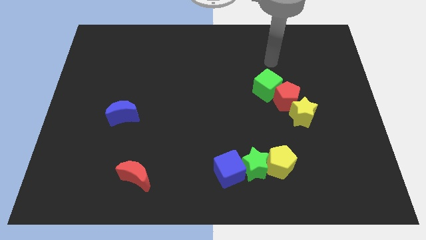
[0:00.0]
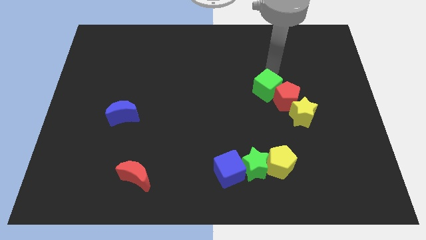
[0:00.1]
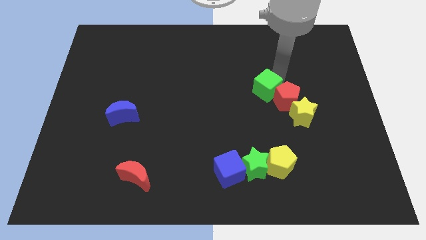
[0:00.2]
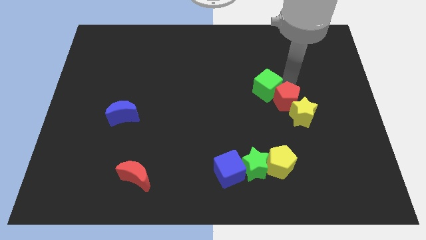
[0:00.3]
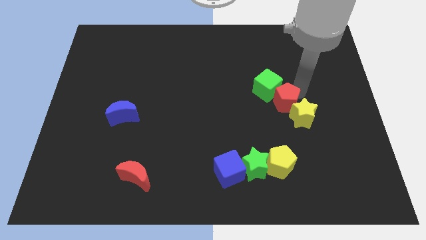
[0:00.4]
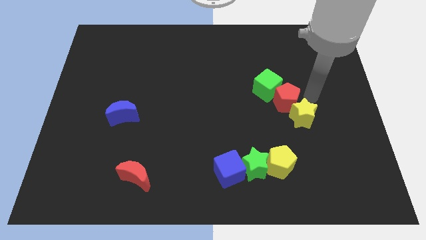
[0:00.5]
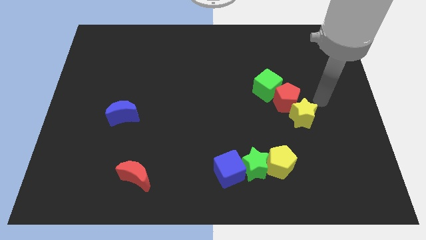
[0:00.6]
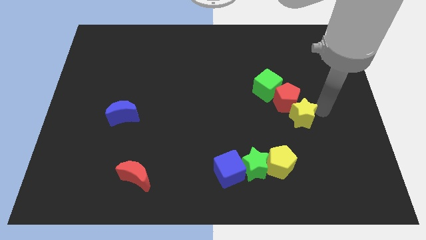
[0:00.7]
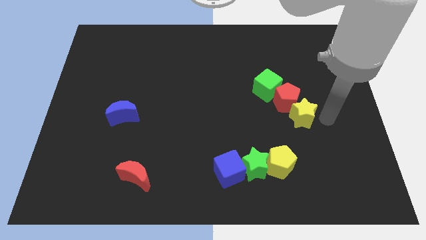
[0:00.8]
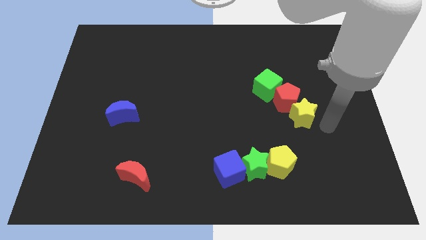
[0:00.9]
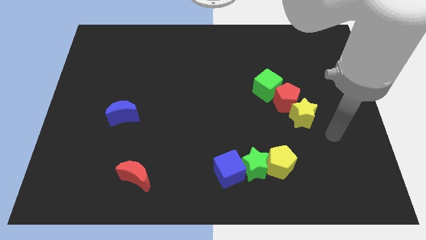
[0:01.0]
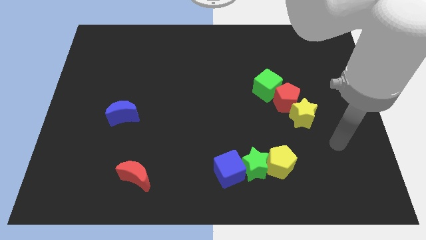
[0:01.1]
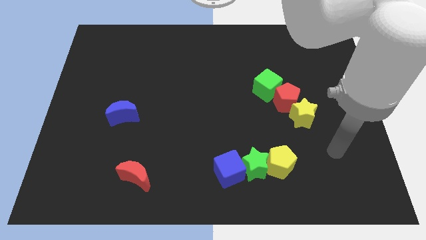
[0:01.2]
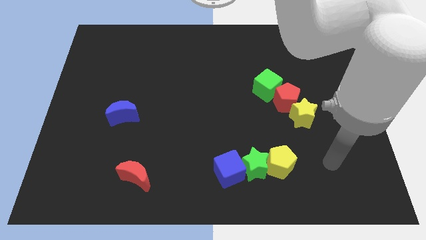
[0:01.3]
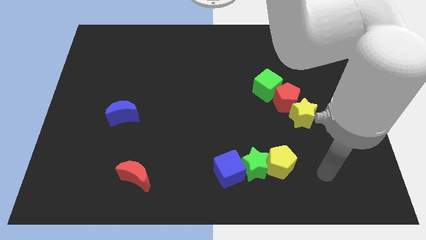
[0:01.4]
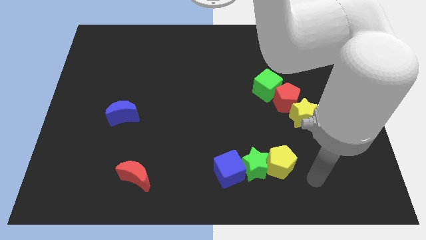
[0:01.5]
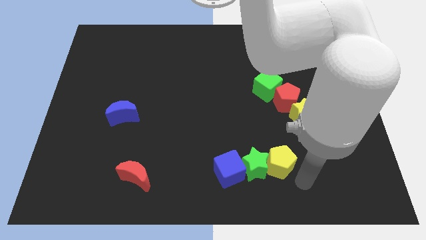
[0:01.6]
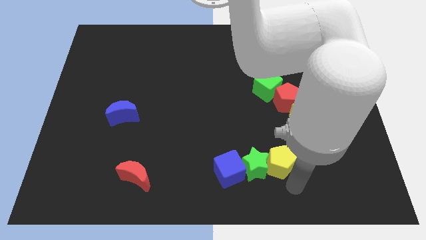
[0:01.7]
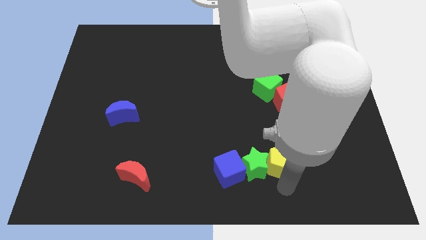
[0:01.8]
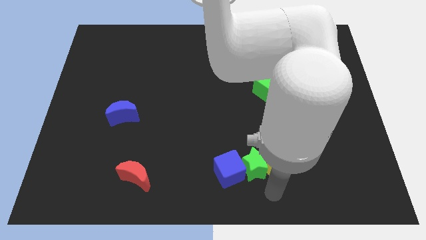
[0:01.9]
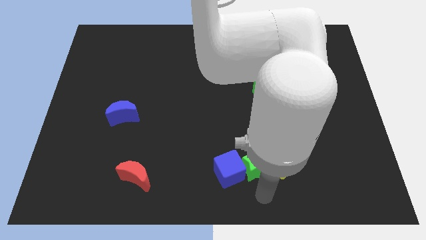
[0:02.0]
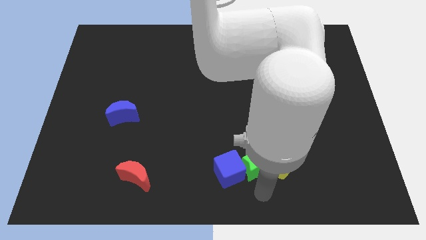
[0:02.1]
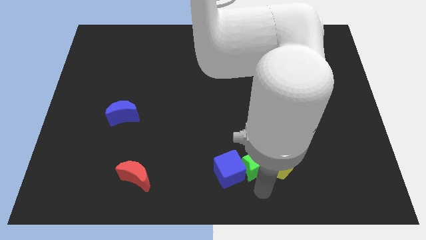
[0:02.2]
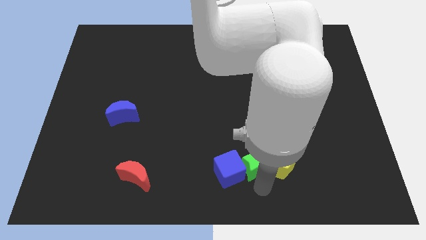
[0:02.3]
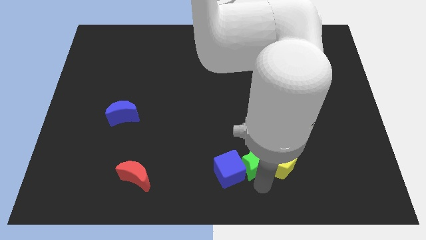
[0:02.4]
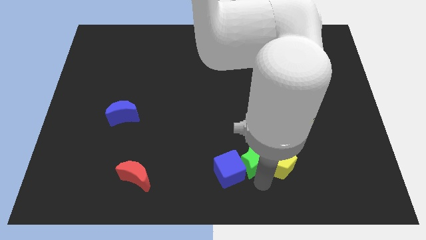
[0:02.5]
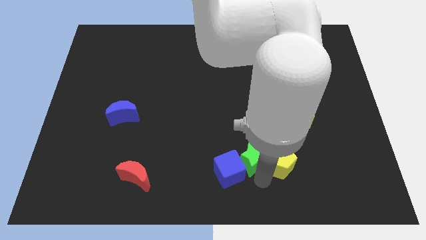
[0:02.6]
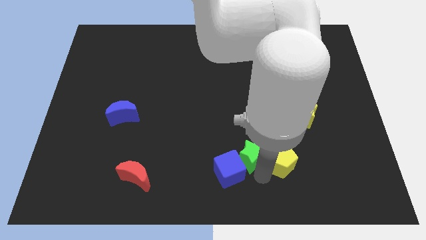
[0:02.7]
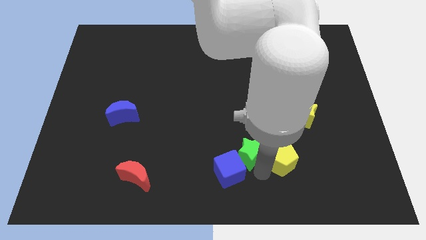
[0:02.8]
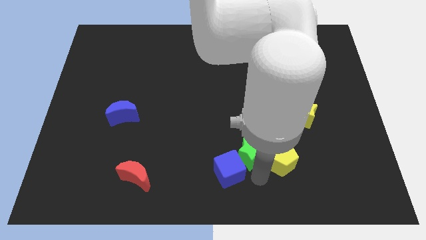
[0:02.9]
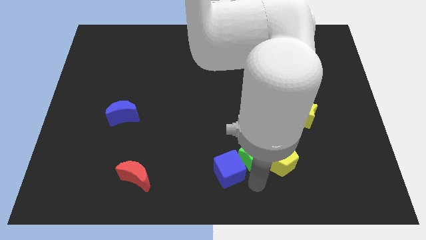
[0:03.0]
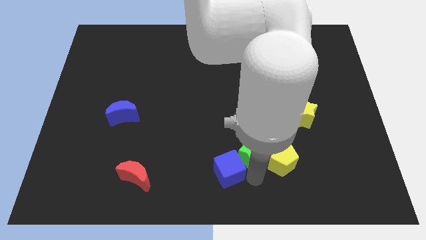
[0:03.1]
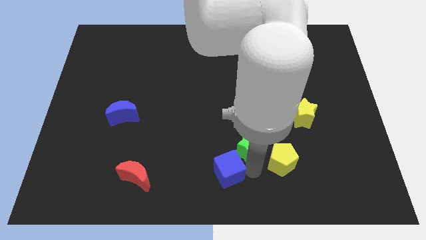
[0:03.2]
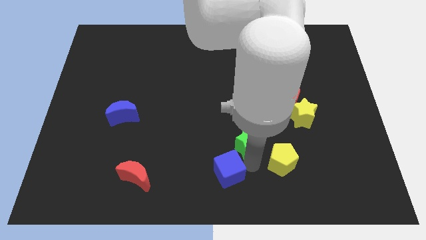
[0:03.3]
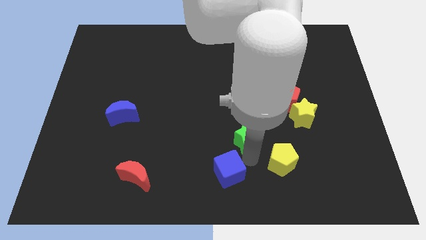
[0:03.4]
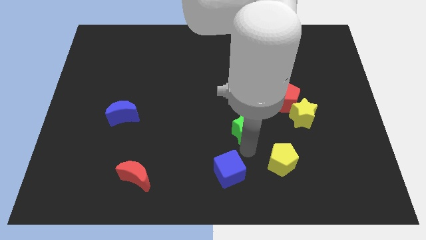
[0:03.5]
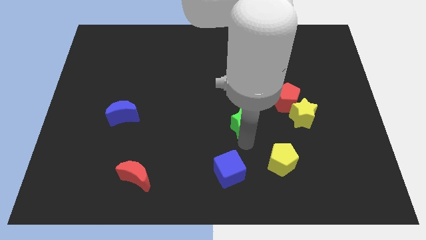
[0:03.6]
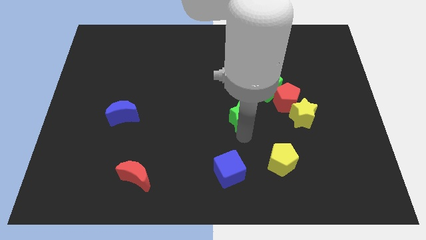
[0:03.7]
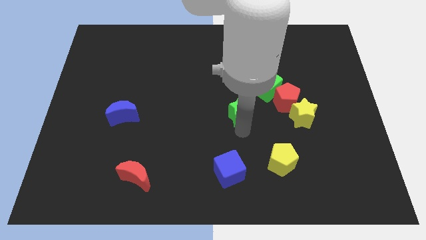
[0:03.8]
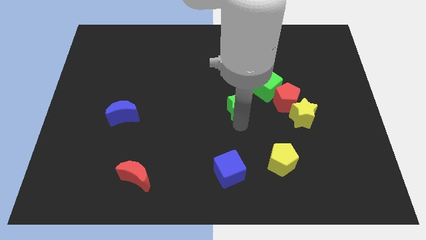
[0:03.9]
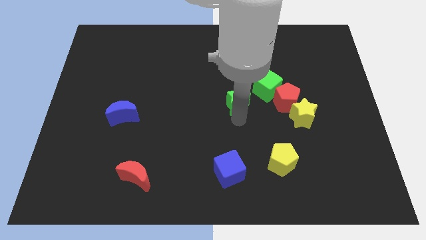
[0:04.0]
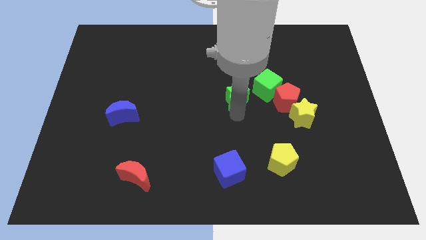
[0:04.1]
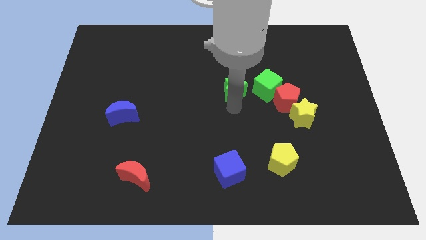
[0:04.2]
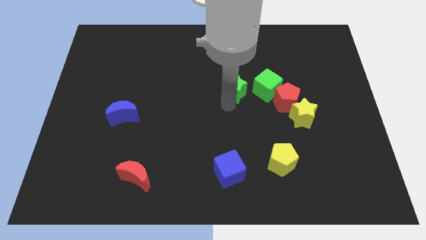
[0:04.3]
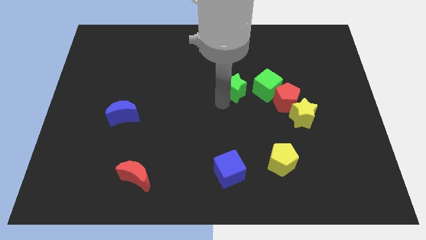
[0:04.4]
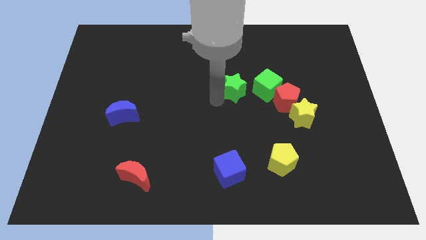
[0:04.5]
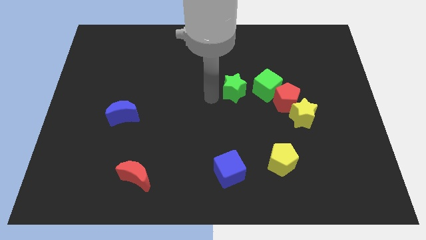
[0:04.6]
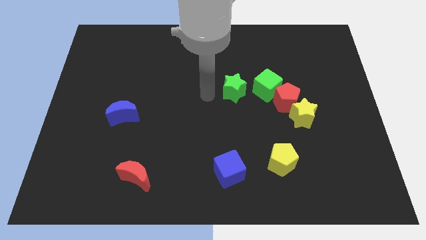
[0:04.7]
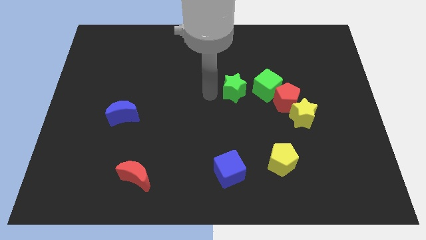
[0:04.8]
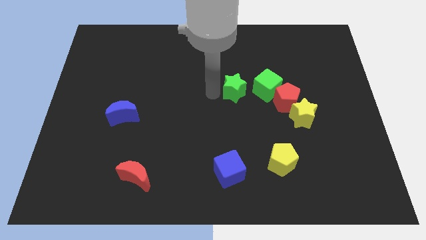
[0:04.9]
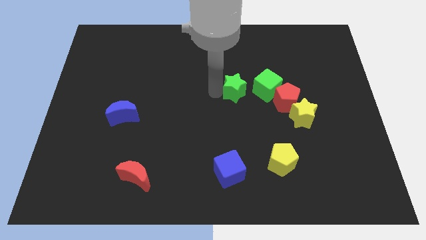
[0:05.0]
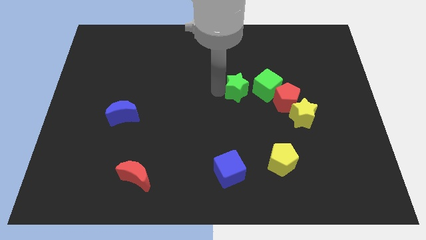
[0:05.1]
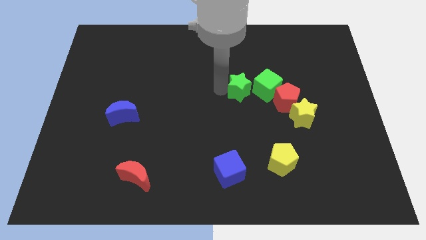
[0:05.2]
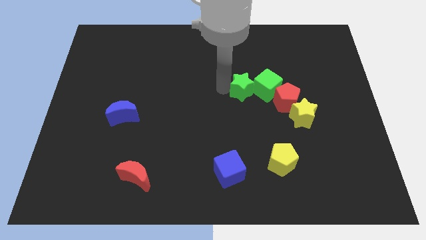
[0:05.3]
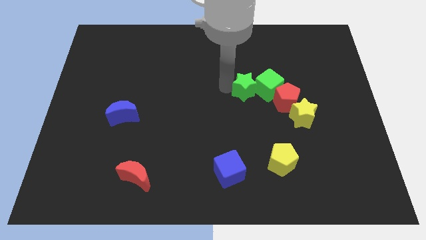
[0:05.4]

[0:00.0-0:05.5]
slide the green star to the top left of the red pentagon

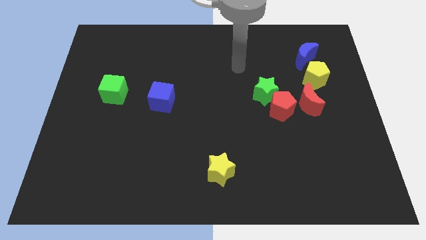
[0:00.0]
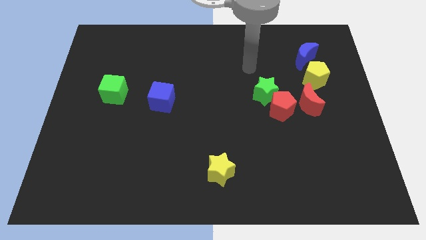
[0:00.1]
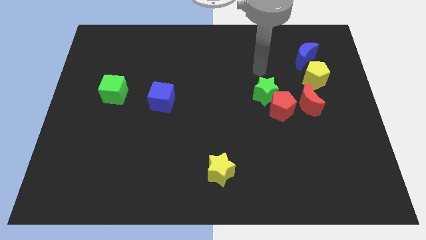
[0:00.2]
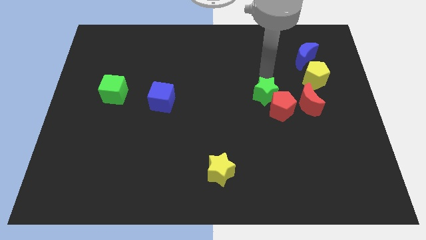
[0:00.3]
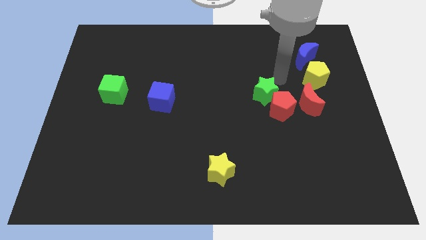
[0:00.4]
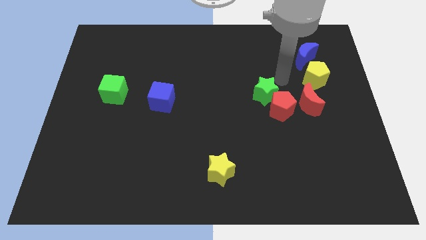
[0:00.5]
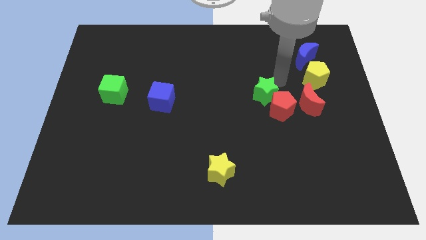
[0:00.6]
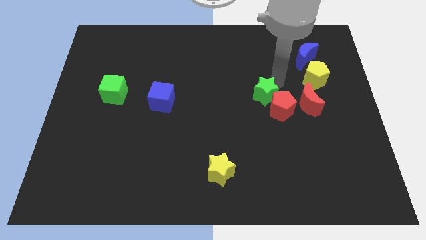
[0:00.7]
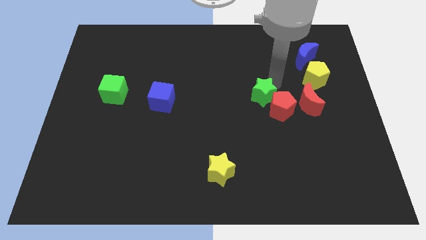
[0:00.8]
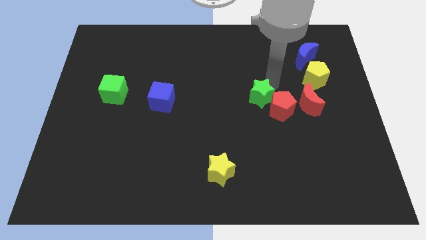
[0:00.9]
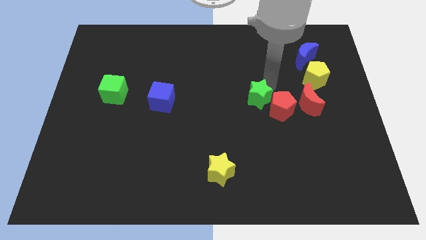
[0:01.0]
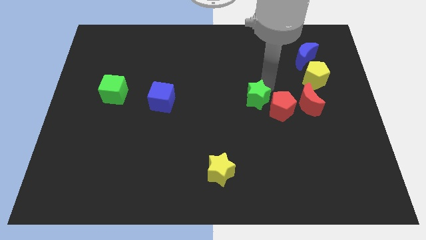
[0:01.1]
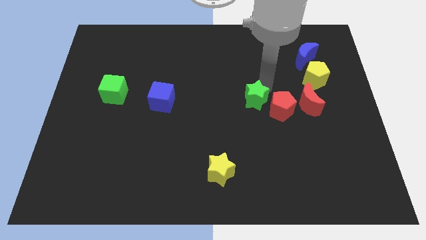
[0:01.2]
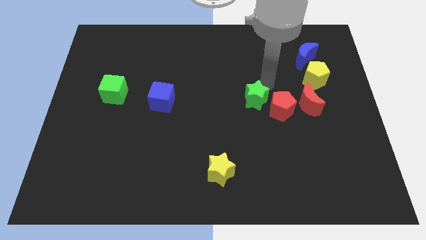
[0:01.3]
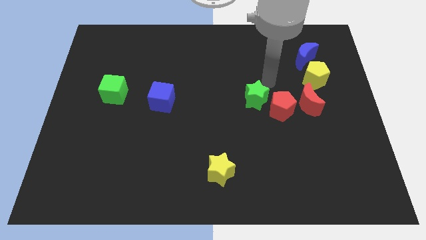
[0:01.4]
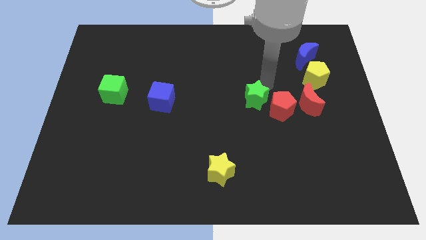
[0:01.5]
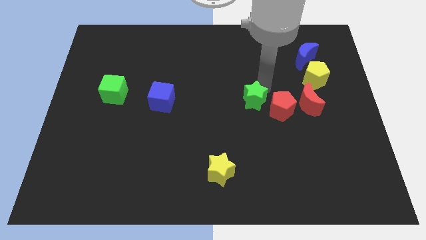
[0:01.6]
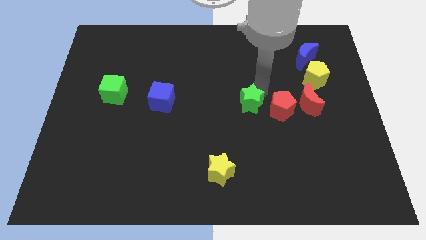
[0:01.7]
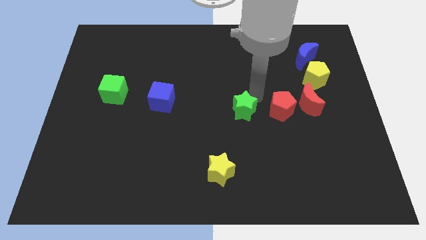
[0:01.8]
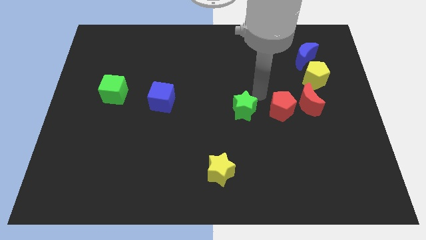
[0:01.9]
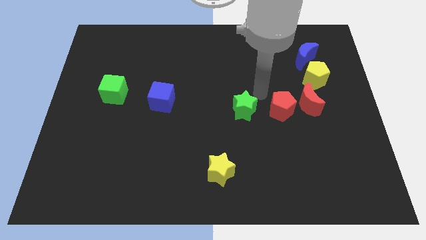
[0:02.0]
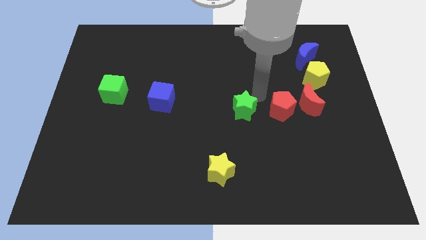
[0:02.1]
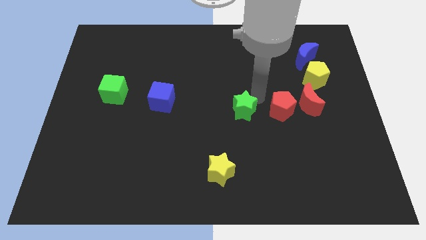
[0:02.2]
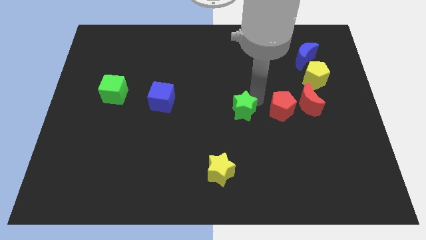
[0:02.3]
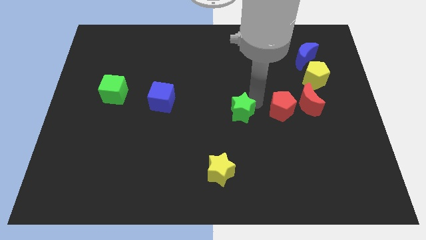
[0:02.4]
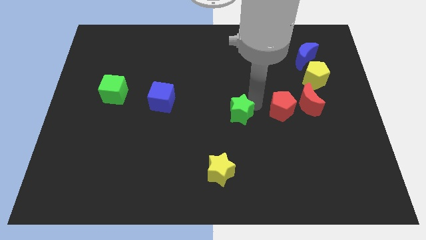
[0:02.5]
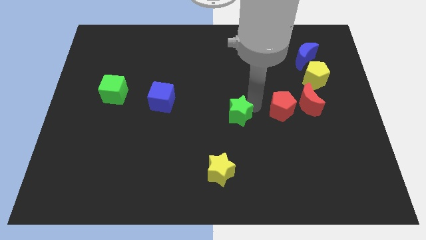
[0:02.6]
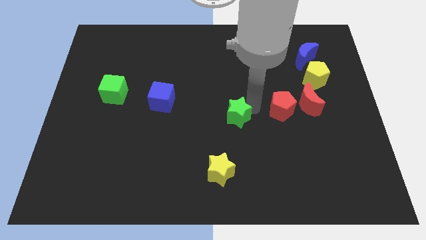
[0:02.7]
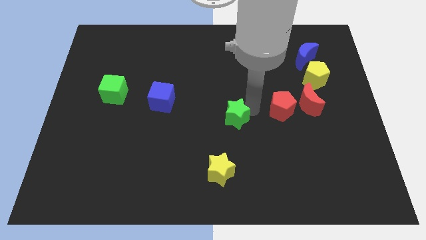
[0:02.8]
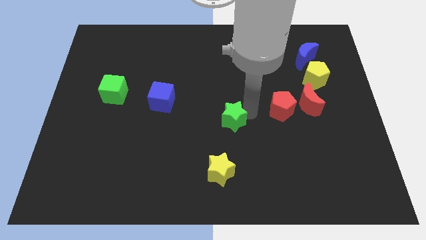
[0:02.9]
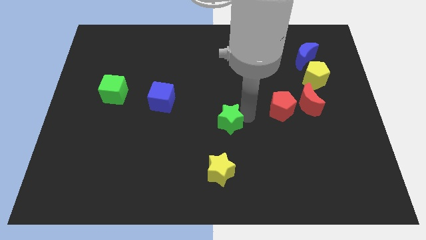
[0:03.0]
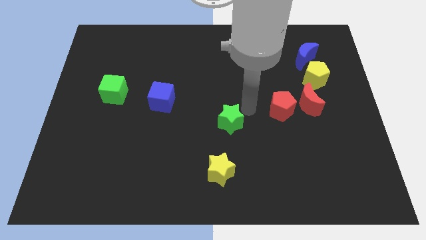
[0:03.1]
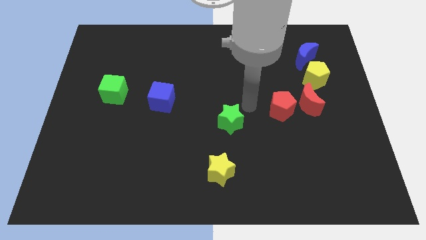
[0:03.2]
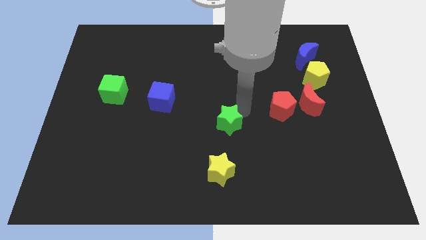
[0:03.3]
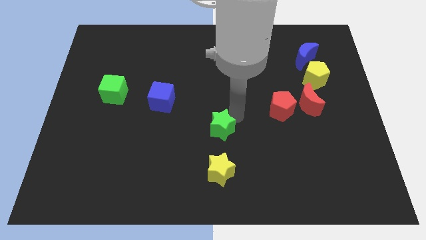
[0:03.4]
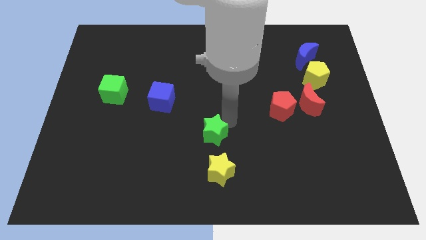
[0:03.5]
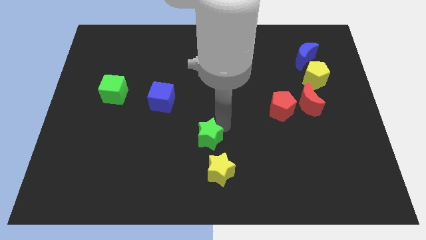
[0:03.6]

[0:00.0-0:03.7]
slide the green star to the top left of the yellow star
